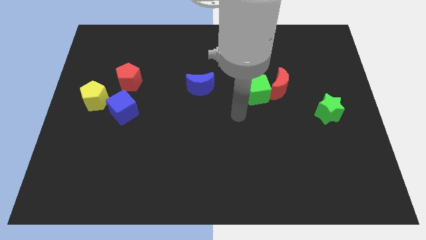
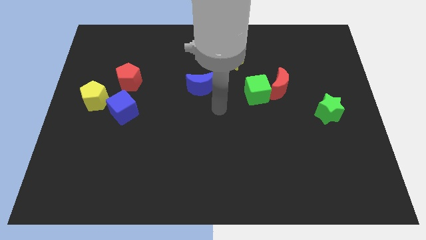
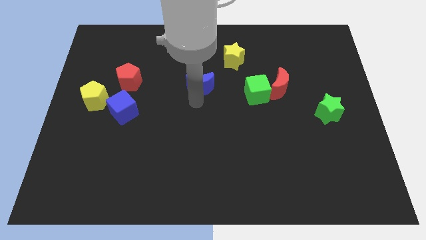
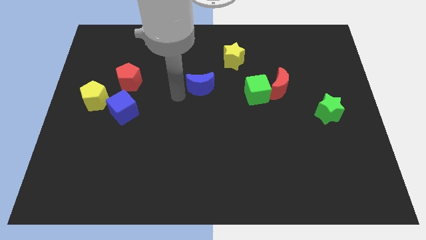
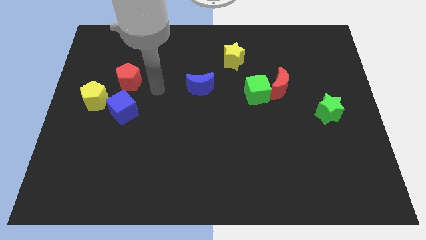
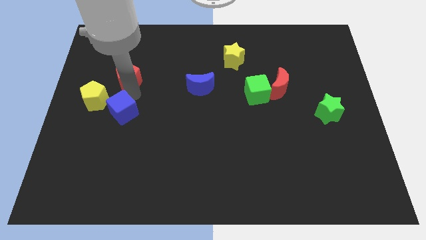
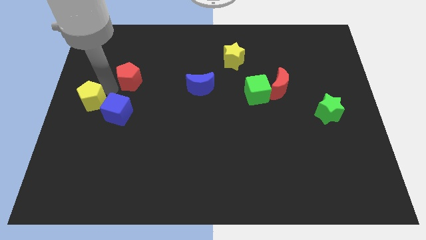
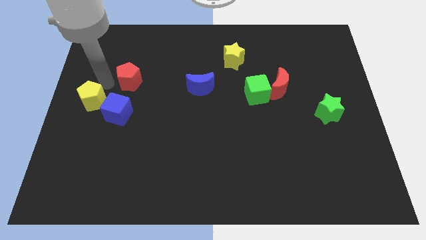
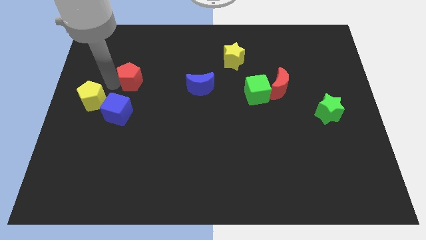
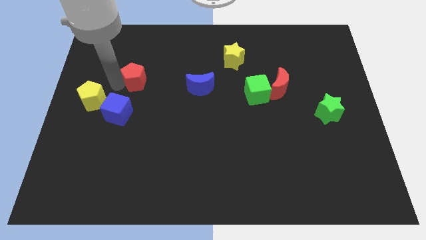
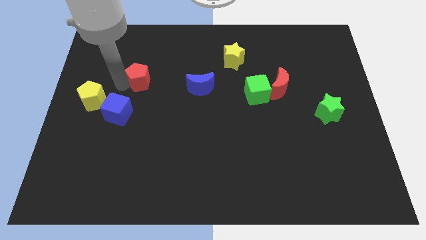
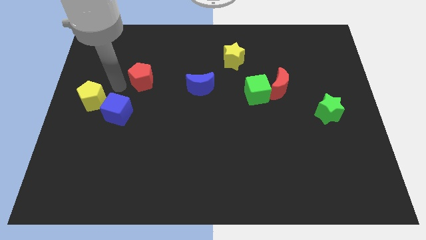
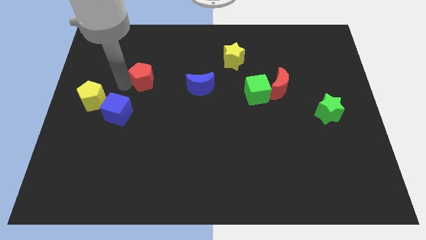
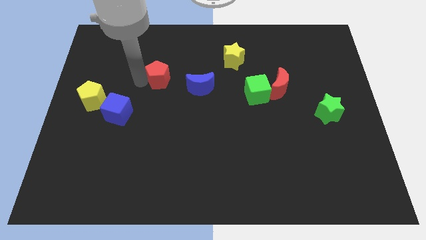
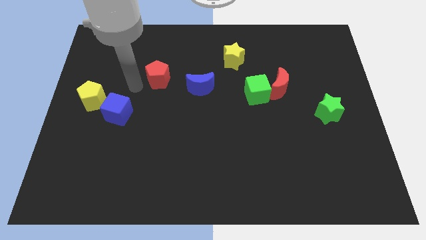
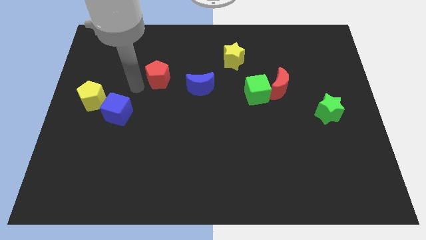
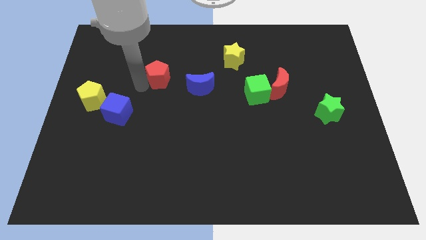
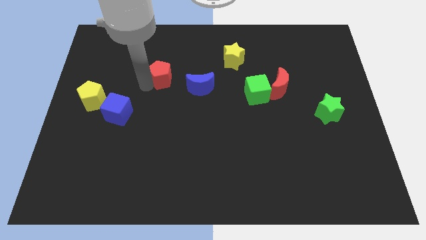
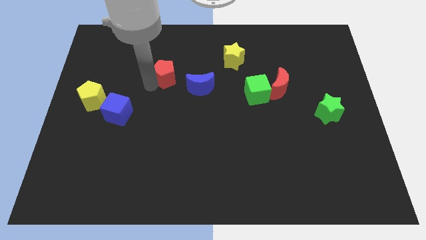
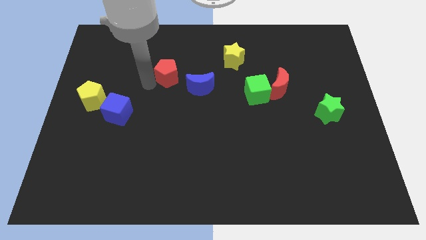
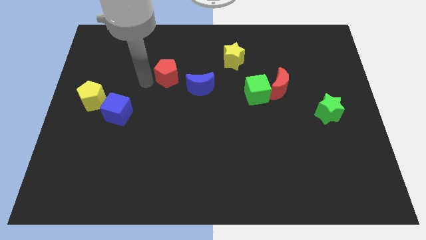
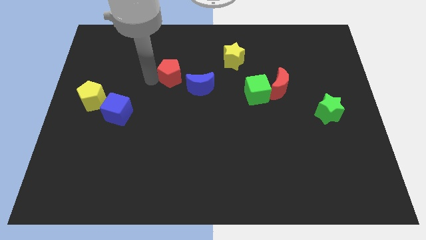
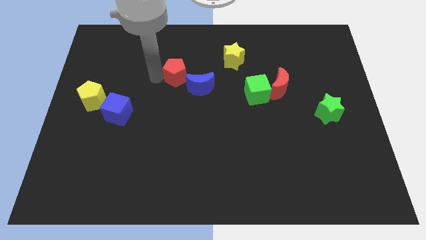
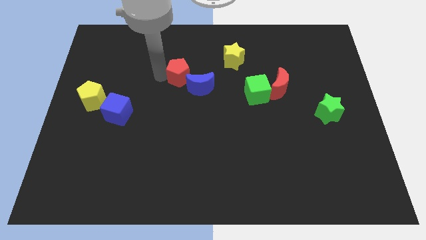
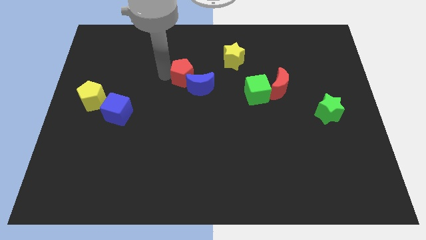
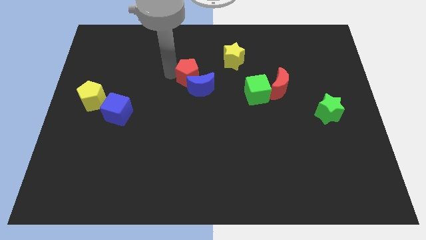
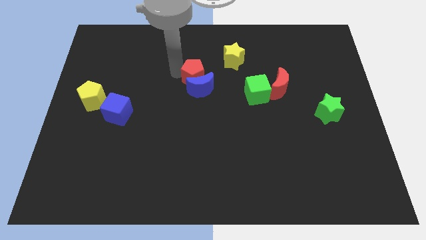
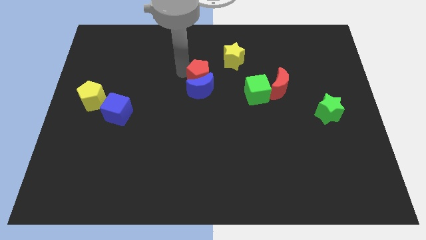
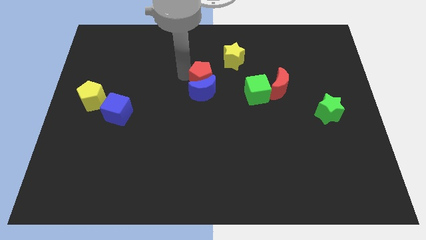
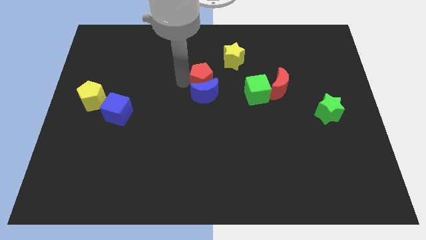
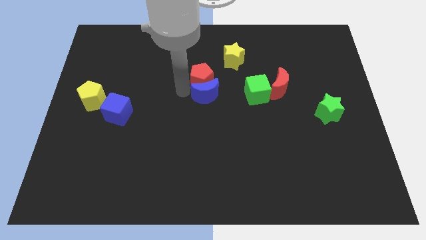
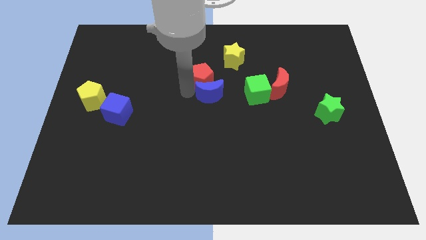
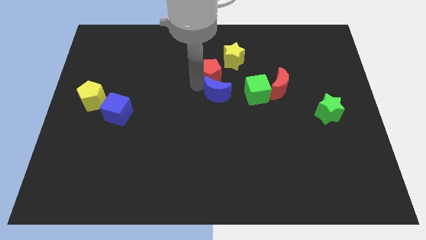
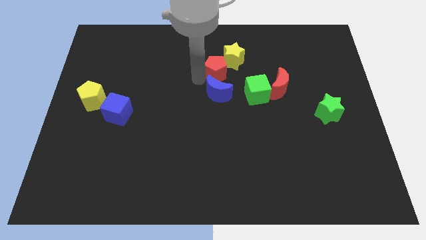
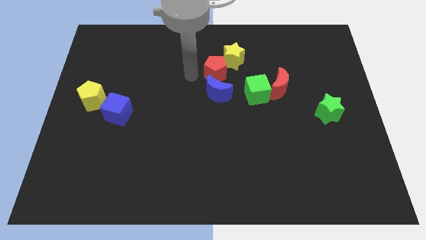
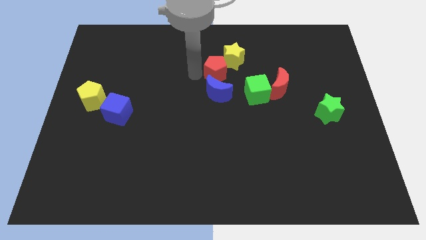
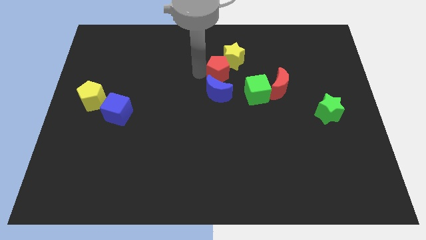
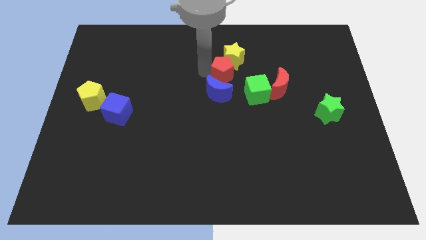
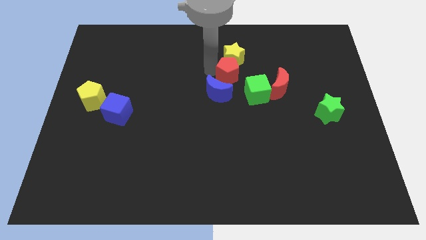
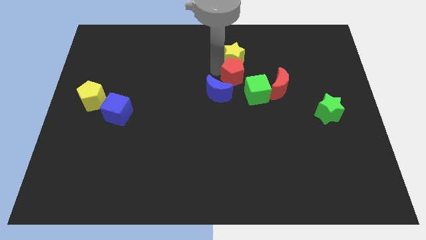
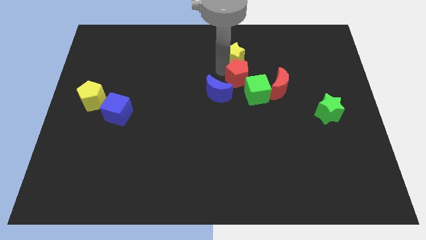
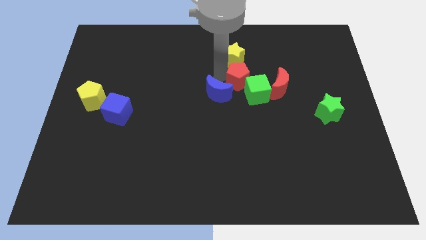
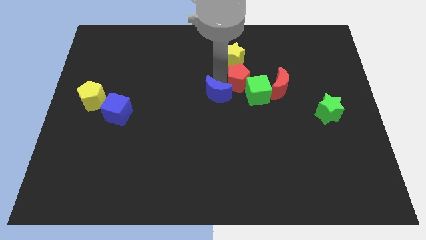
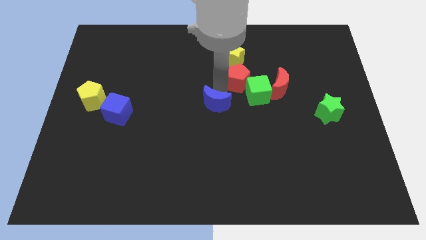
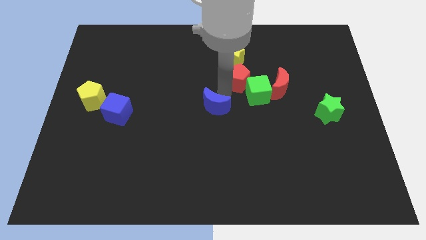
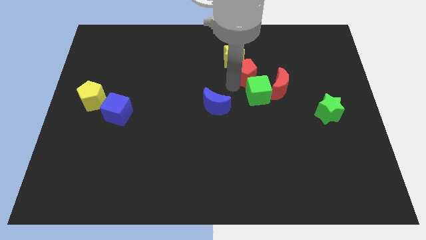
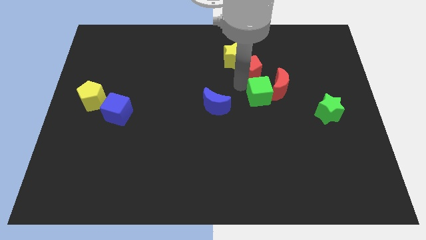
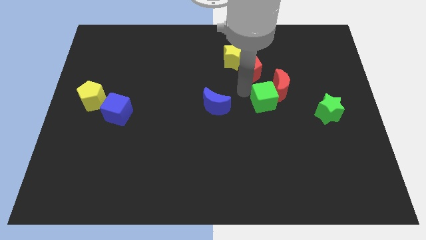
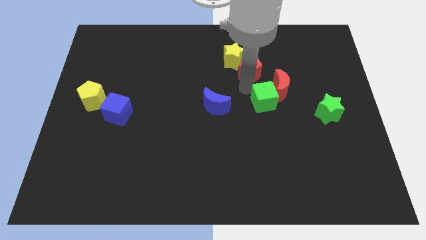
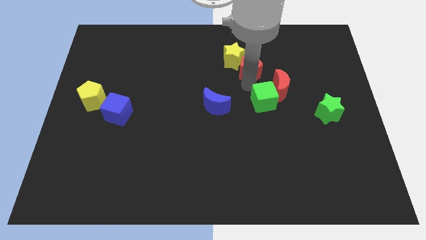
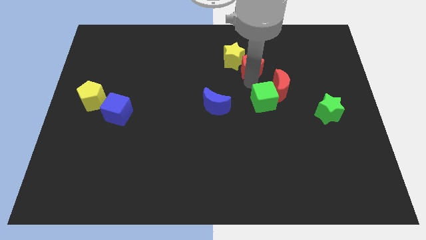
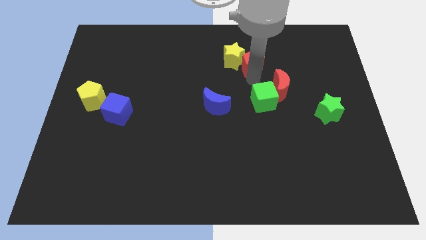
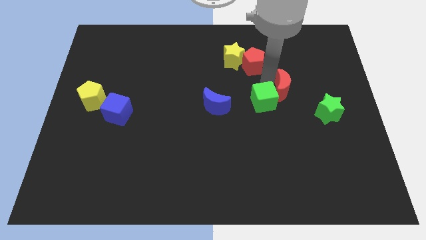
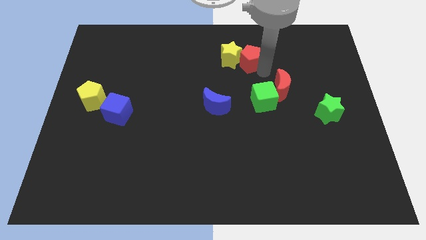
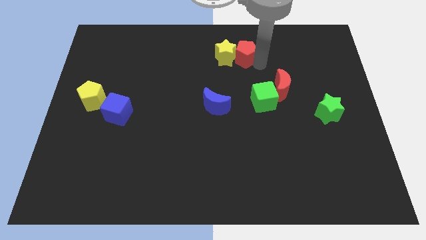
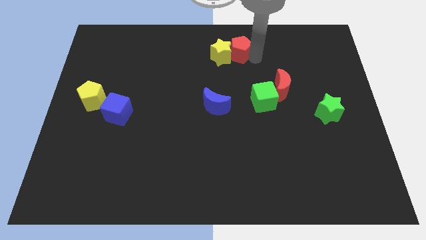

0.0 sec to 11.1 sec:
slide the red pentagon to the top

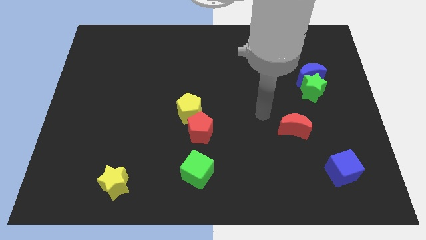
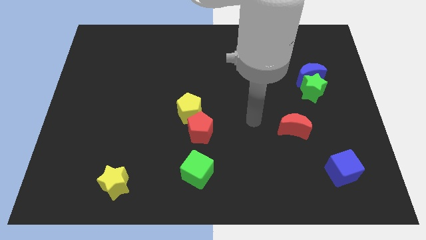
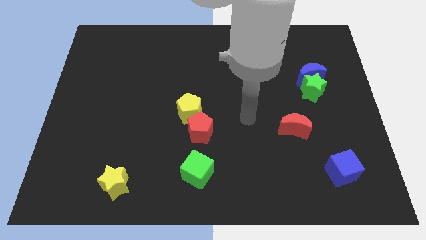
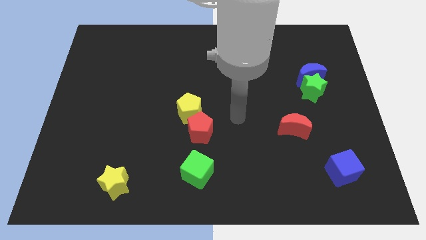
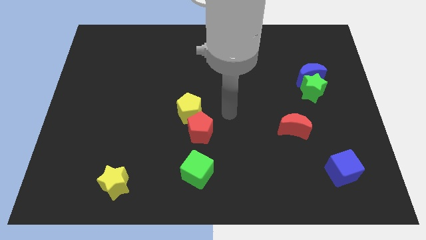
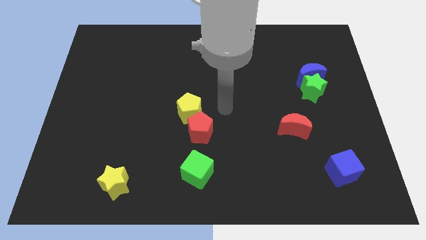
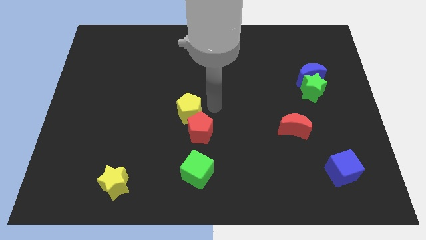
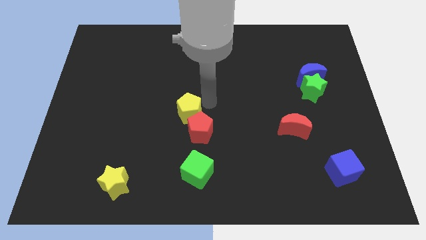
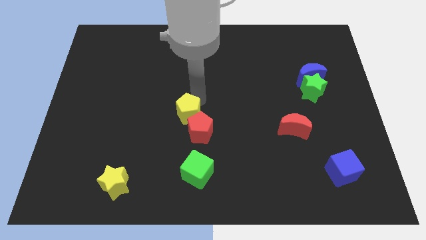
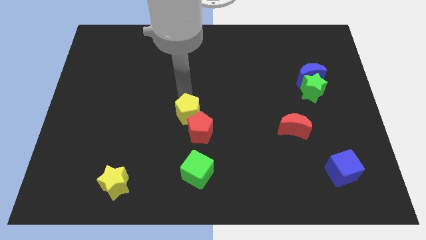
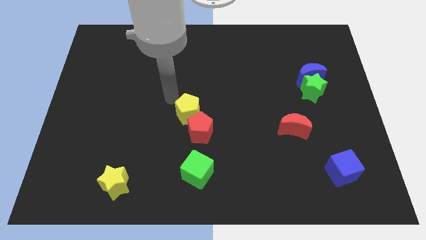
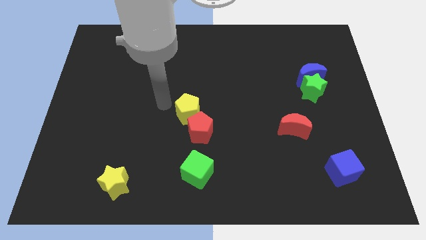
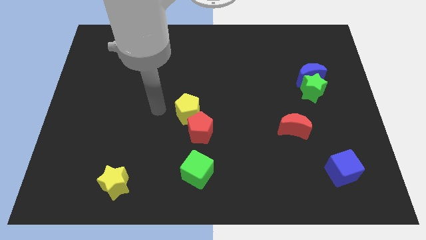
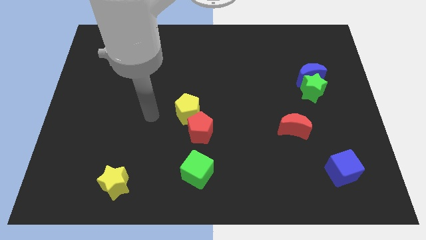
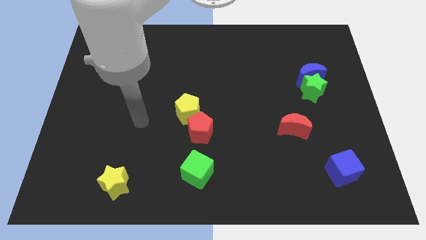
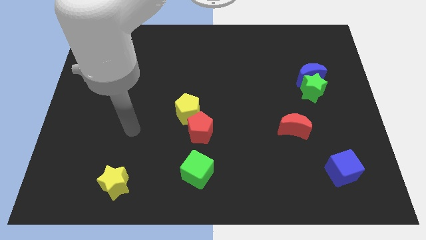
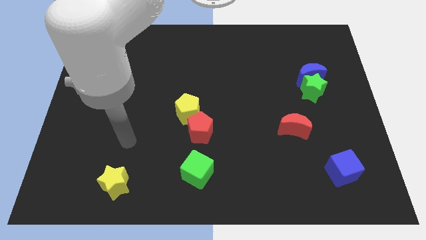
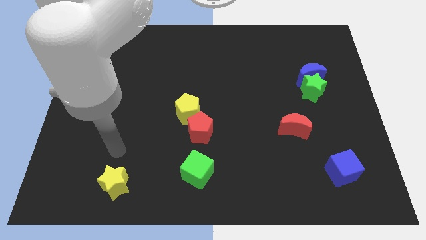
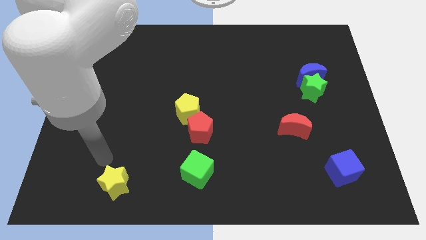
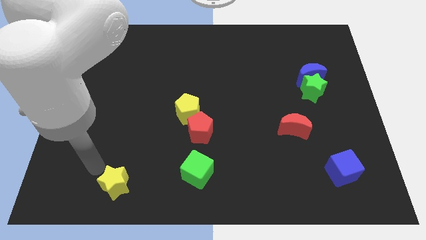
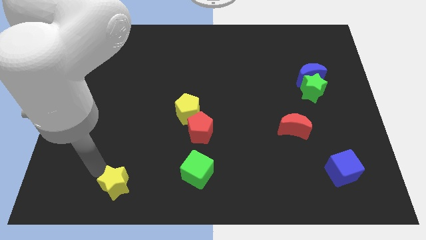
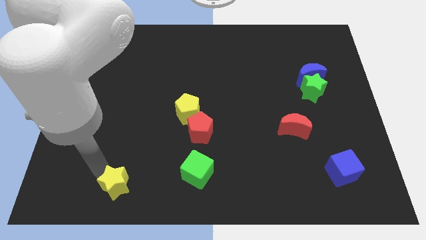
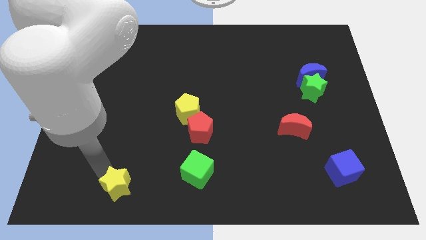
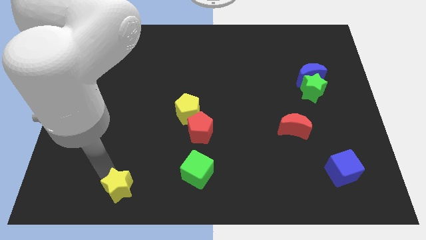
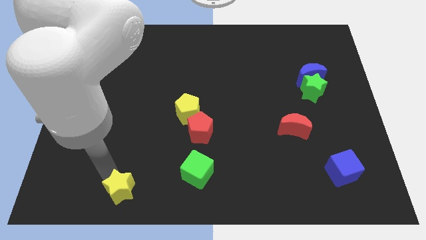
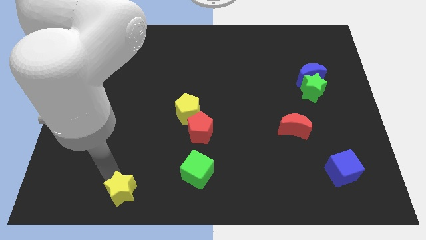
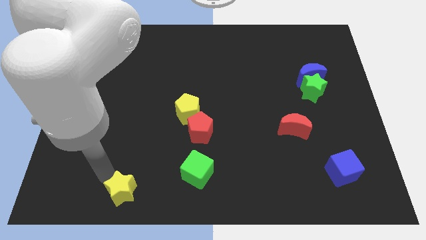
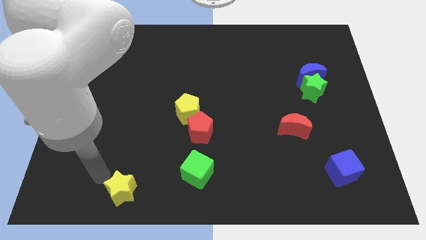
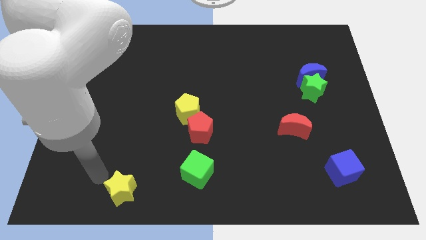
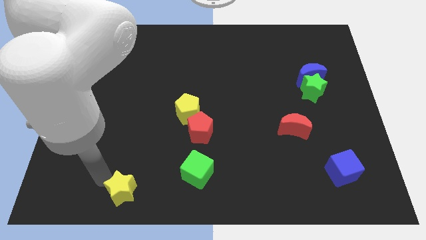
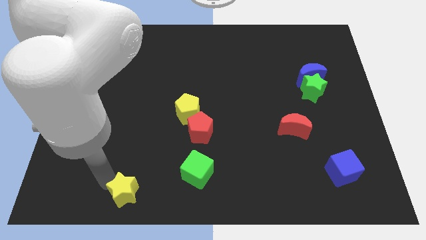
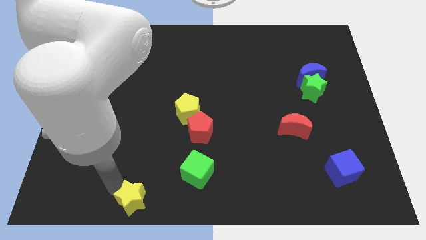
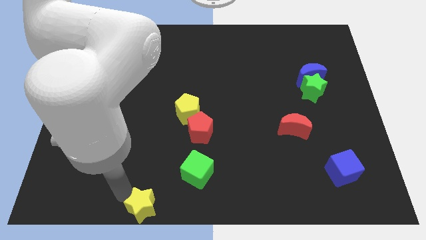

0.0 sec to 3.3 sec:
move the yellow star to the bottom side
